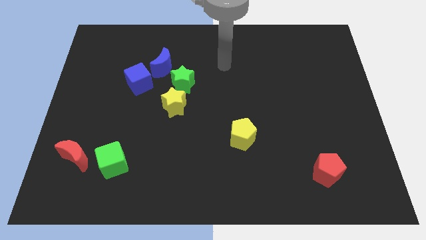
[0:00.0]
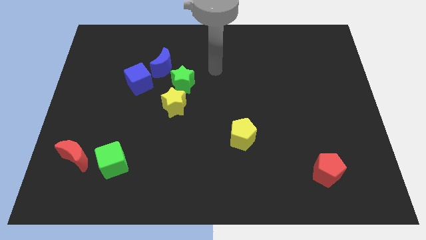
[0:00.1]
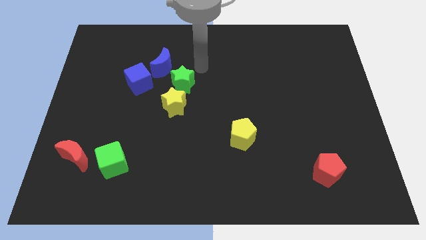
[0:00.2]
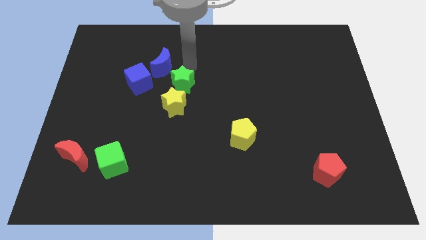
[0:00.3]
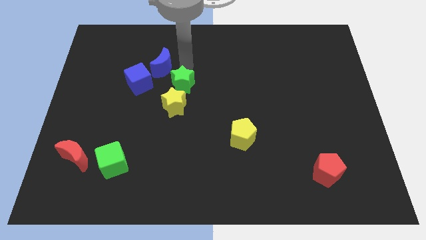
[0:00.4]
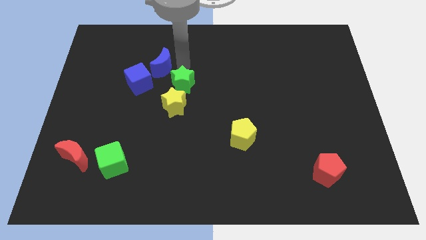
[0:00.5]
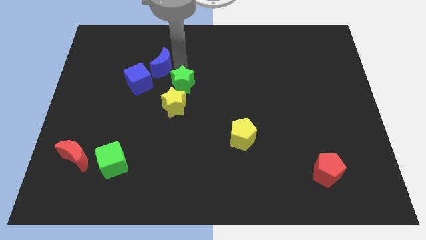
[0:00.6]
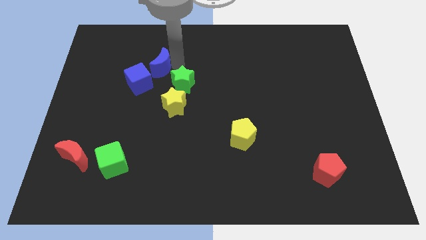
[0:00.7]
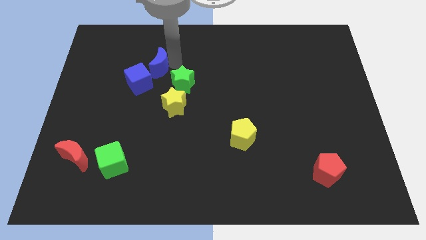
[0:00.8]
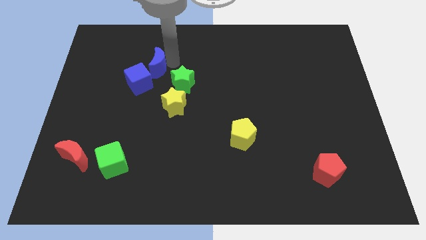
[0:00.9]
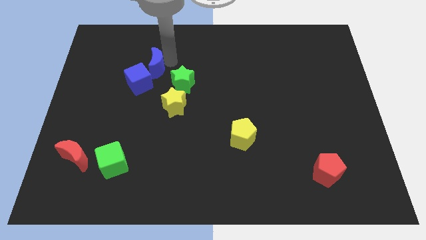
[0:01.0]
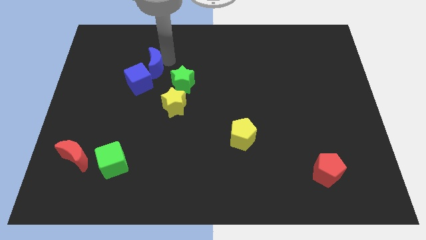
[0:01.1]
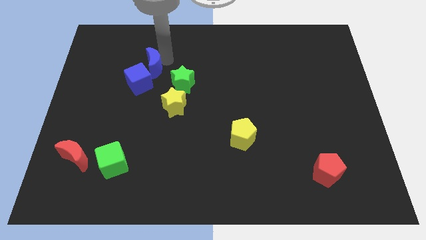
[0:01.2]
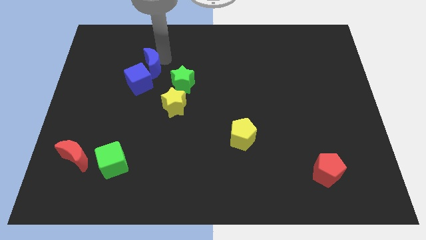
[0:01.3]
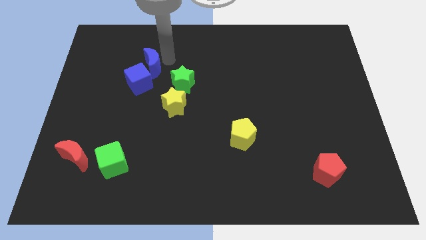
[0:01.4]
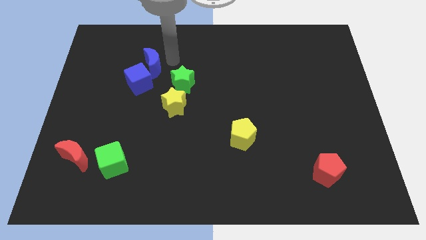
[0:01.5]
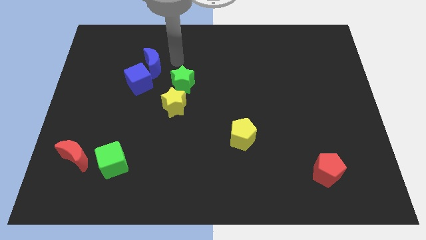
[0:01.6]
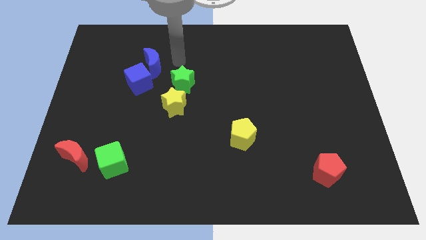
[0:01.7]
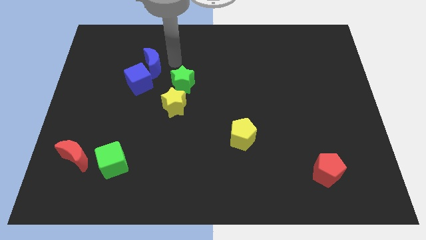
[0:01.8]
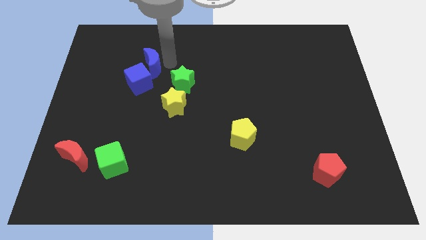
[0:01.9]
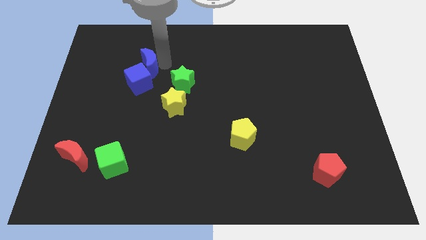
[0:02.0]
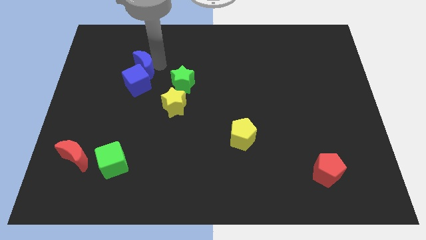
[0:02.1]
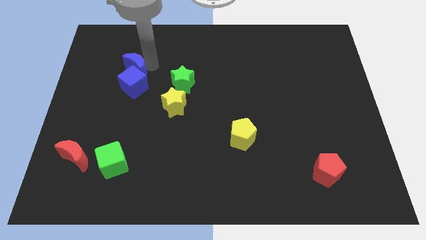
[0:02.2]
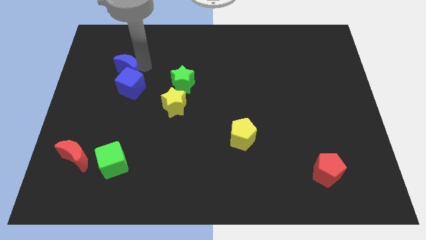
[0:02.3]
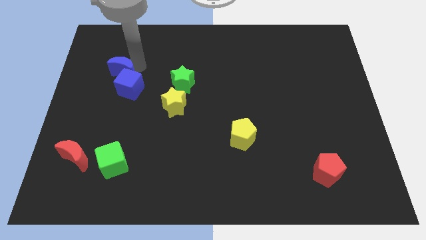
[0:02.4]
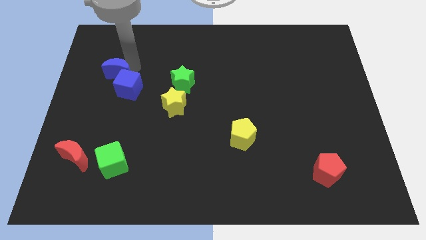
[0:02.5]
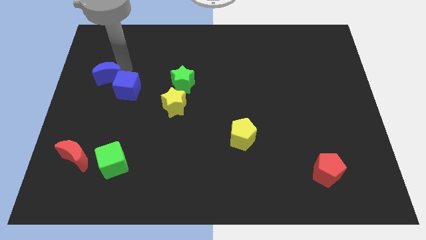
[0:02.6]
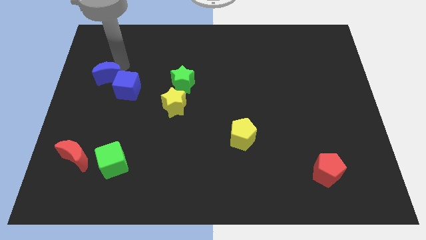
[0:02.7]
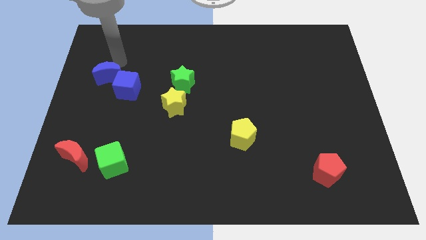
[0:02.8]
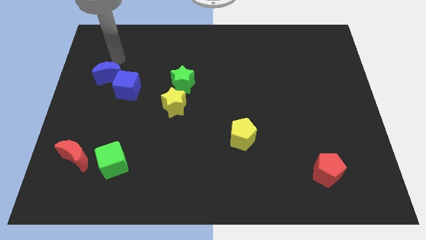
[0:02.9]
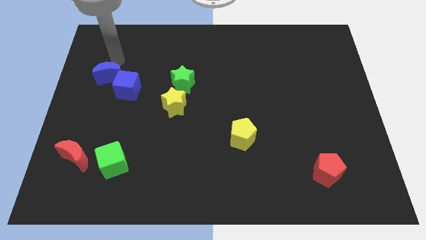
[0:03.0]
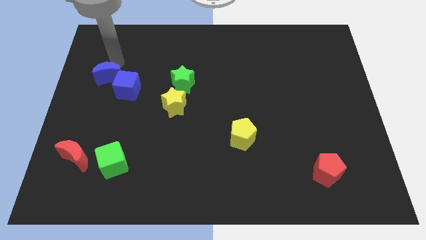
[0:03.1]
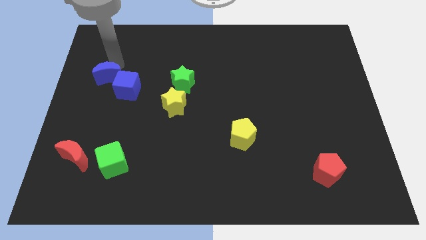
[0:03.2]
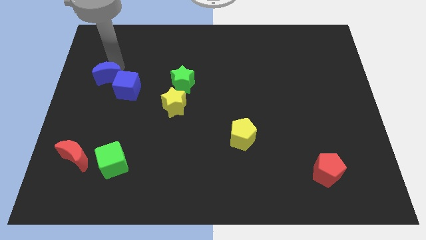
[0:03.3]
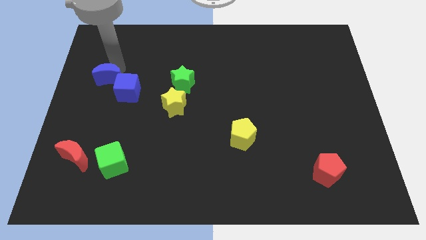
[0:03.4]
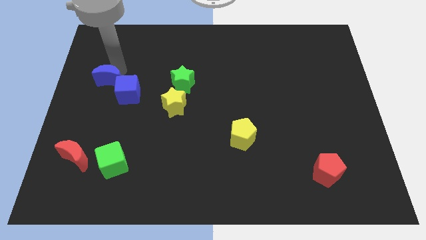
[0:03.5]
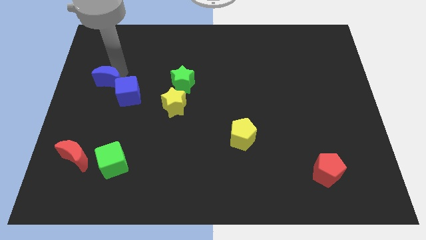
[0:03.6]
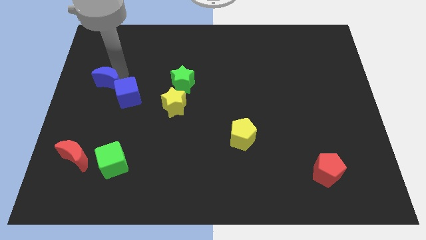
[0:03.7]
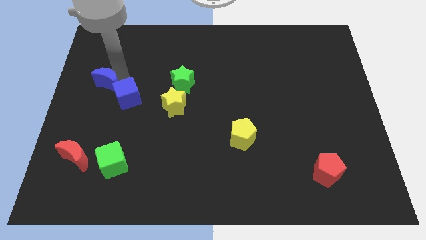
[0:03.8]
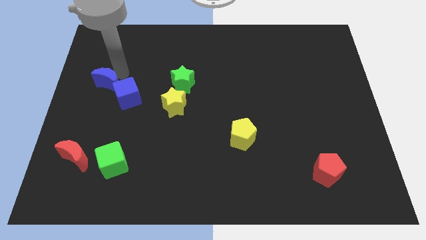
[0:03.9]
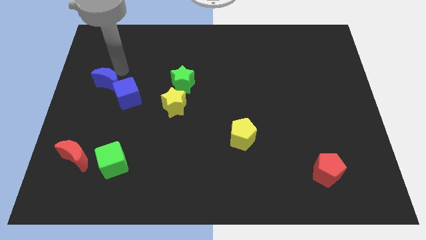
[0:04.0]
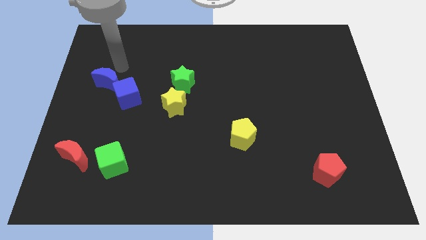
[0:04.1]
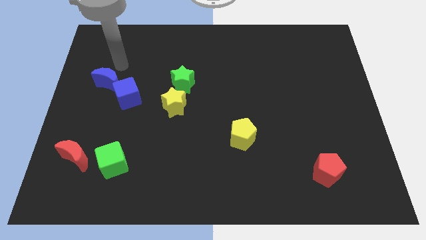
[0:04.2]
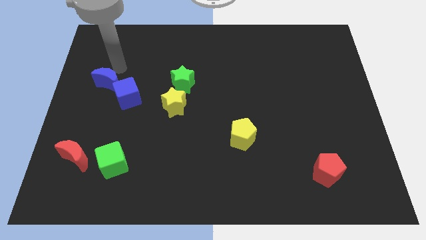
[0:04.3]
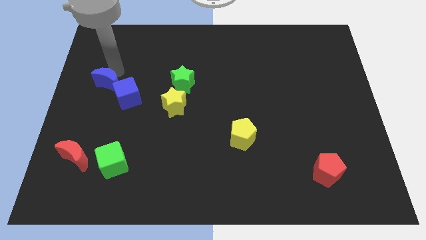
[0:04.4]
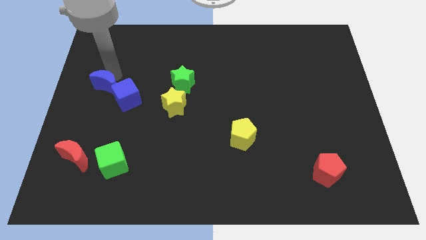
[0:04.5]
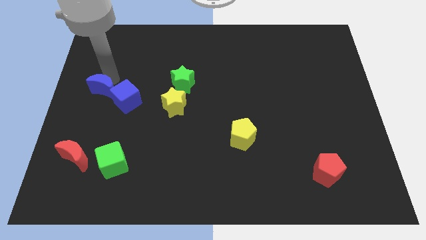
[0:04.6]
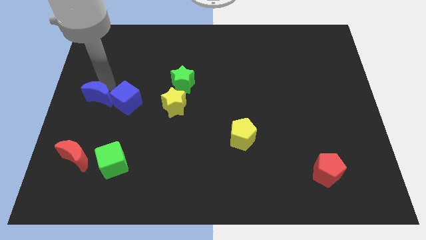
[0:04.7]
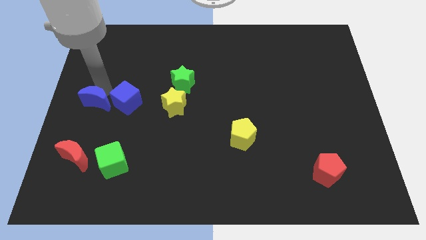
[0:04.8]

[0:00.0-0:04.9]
put the blue moon to the top of the red moon

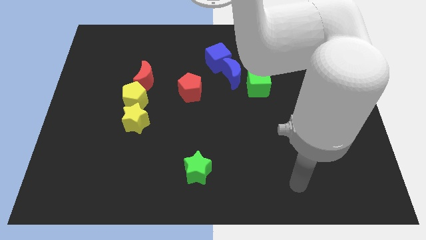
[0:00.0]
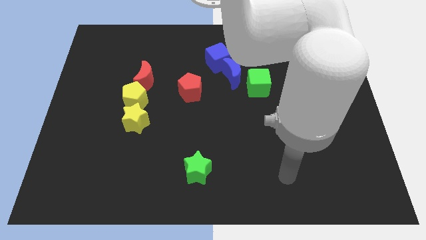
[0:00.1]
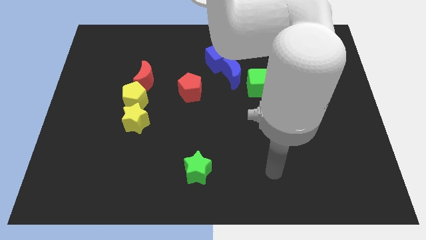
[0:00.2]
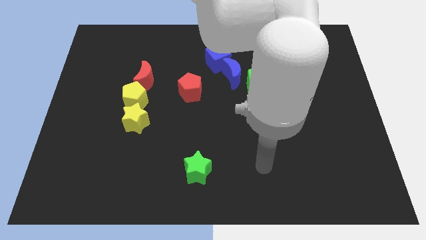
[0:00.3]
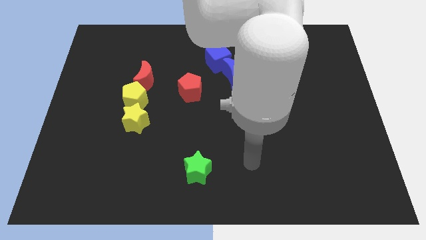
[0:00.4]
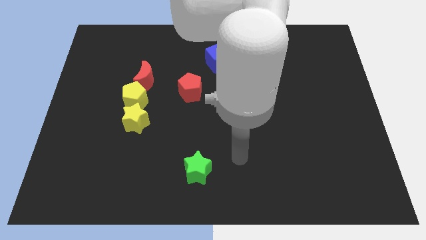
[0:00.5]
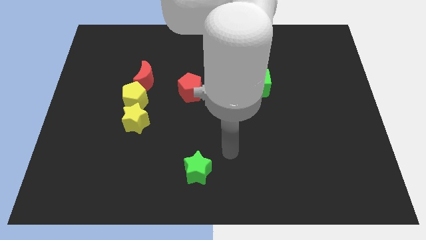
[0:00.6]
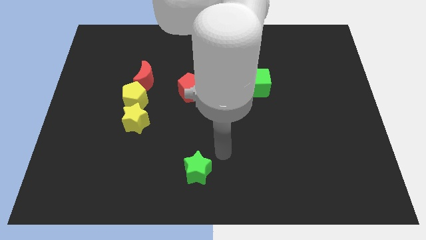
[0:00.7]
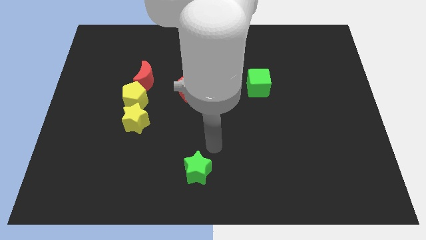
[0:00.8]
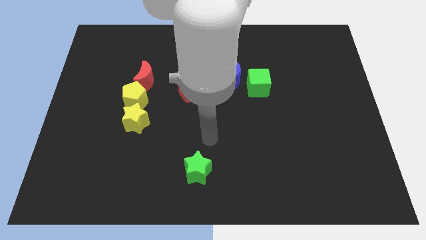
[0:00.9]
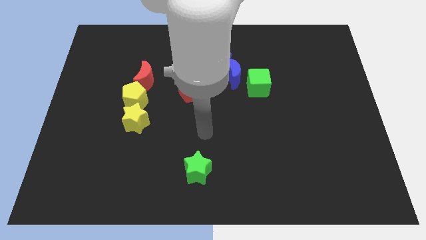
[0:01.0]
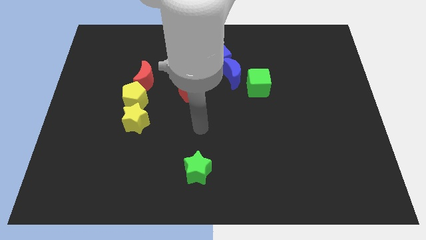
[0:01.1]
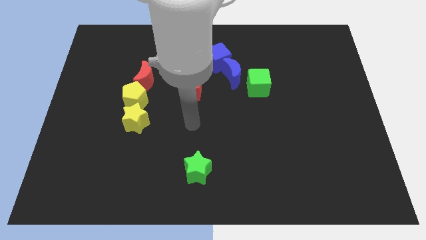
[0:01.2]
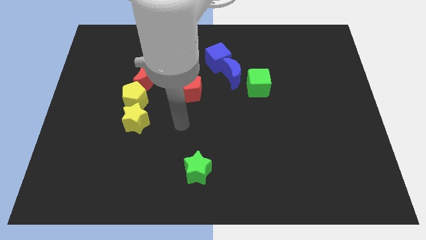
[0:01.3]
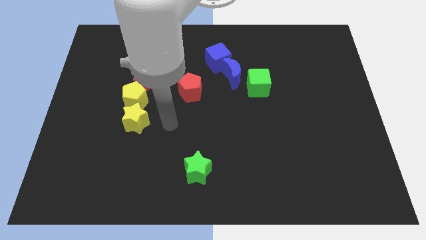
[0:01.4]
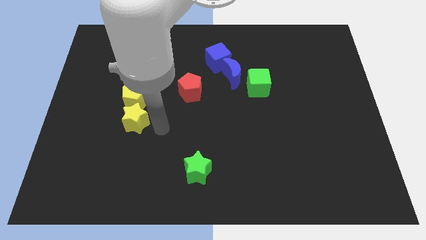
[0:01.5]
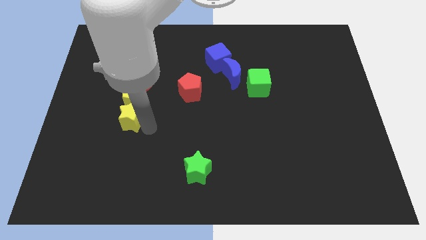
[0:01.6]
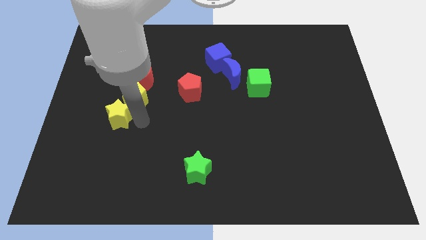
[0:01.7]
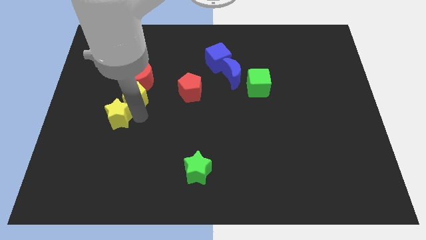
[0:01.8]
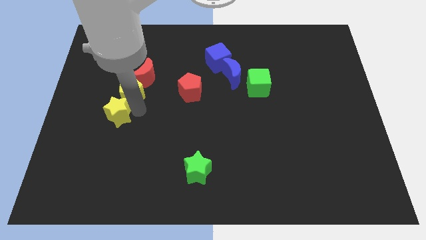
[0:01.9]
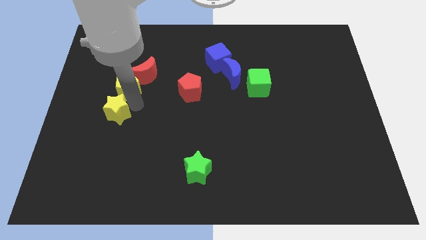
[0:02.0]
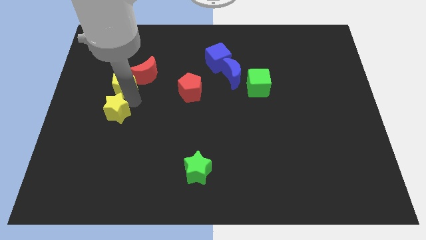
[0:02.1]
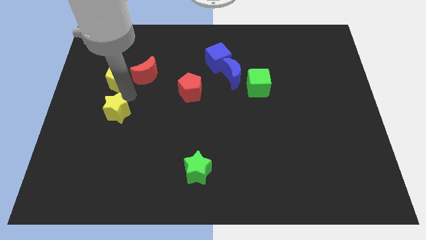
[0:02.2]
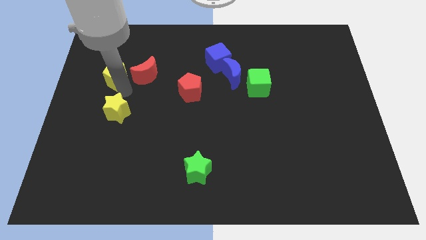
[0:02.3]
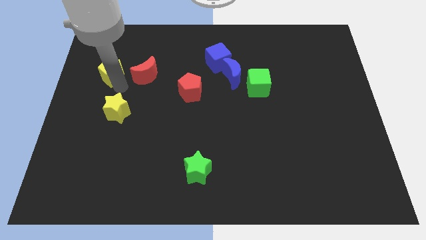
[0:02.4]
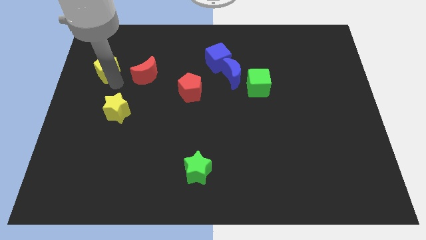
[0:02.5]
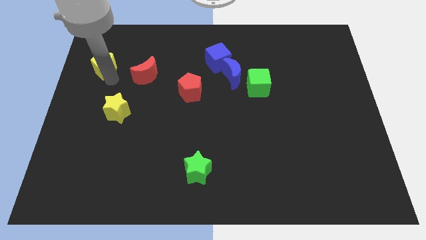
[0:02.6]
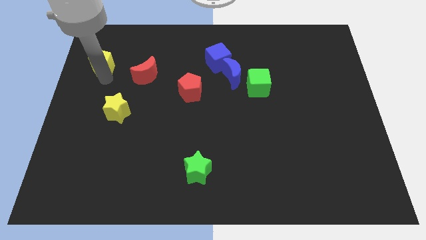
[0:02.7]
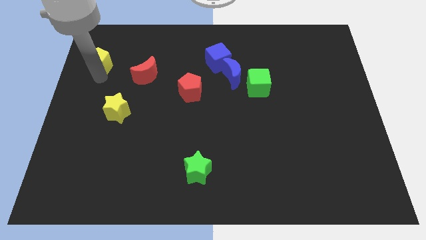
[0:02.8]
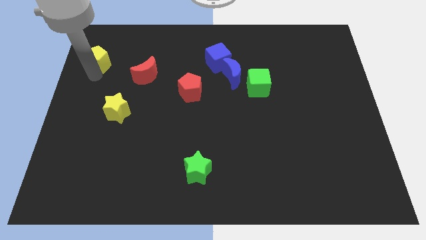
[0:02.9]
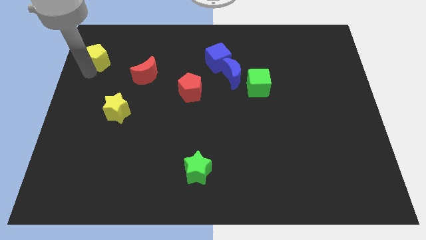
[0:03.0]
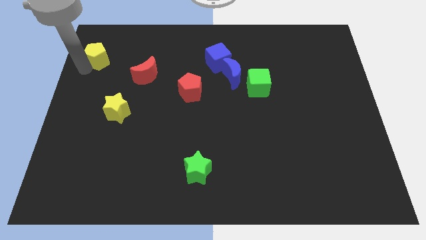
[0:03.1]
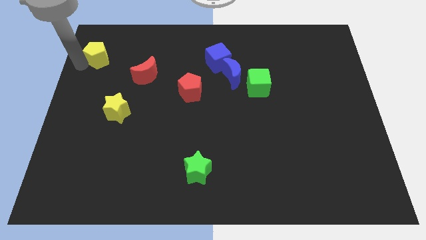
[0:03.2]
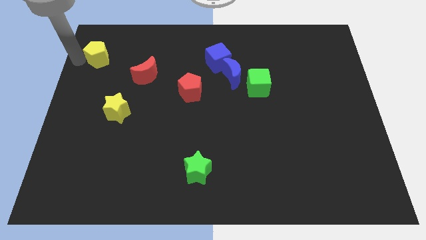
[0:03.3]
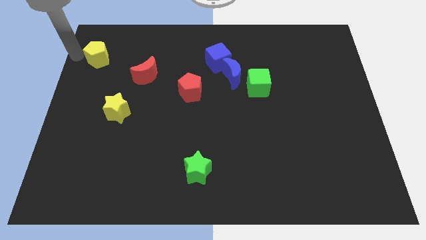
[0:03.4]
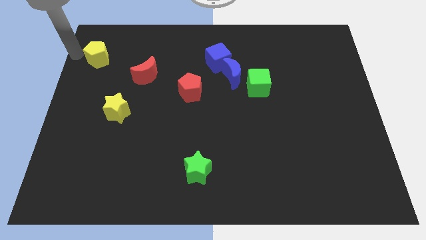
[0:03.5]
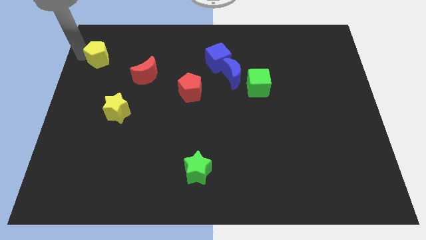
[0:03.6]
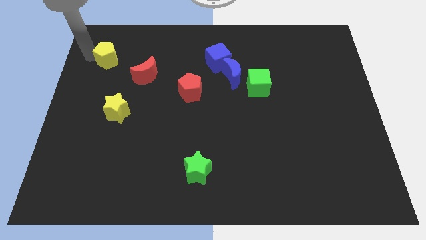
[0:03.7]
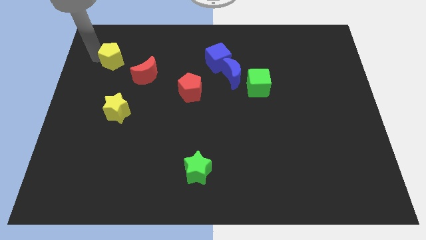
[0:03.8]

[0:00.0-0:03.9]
push the yellow pentagon diagonally up and to the left of the red moon
